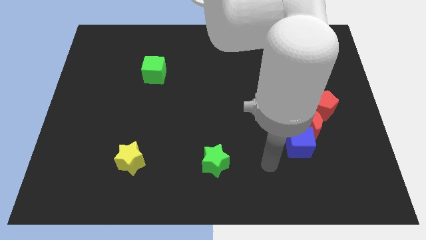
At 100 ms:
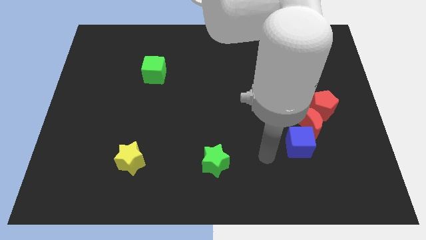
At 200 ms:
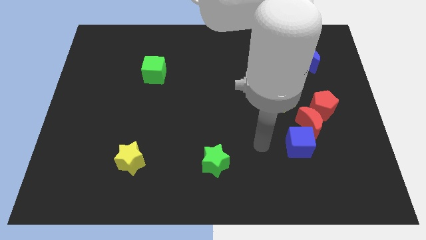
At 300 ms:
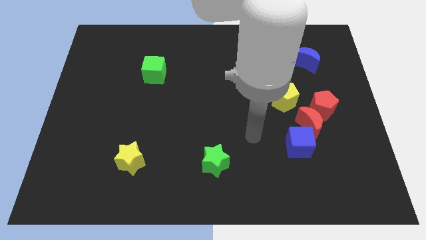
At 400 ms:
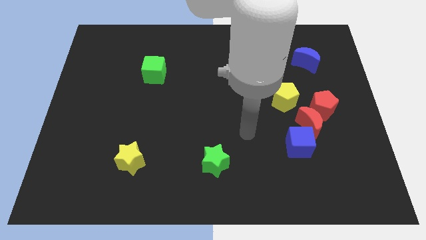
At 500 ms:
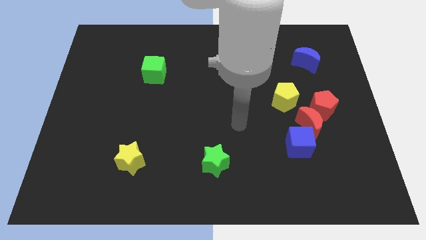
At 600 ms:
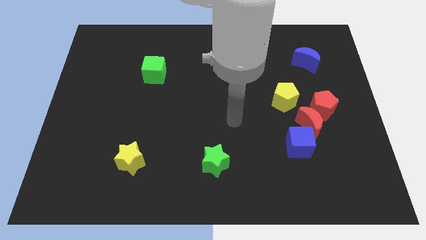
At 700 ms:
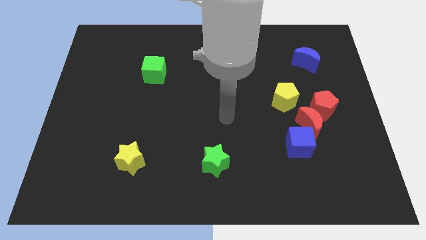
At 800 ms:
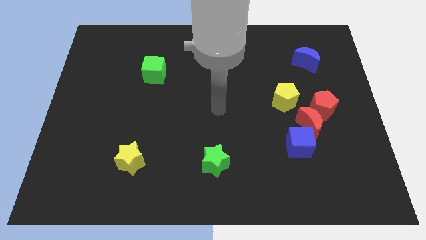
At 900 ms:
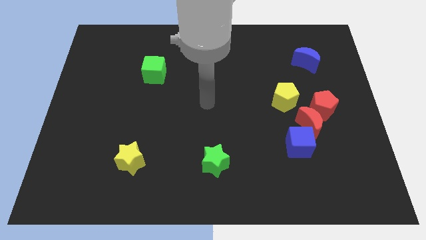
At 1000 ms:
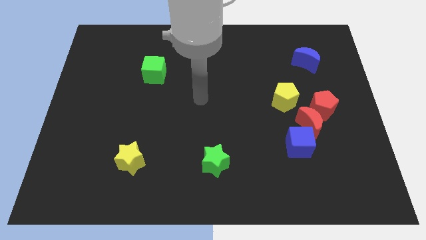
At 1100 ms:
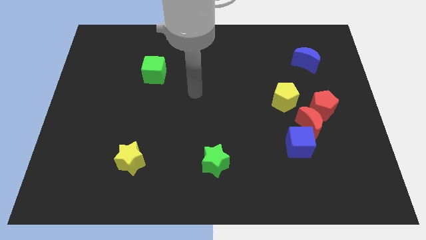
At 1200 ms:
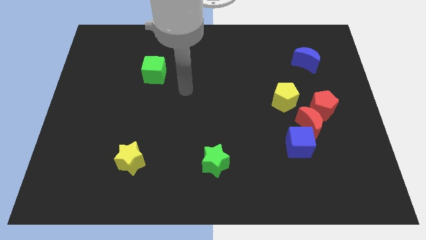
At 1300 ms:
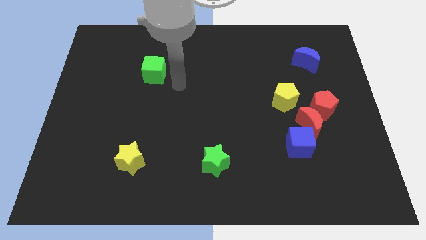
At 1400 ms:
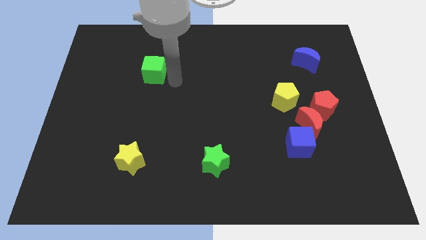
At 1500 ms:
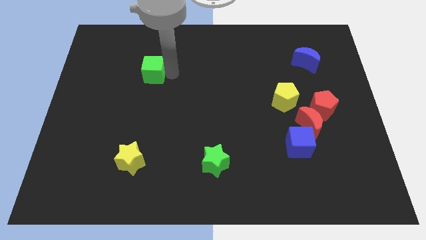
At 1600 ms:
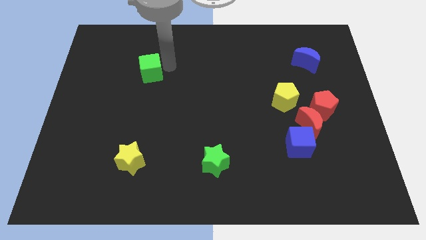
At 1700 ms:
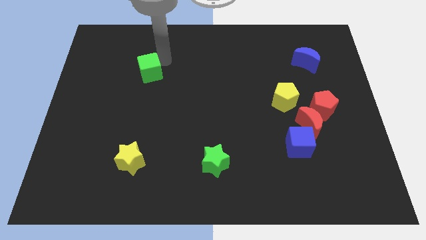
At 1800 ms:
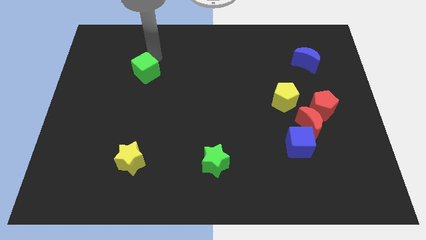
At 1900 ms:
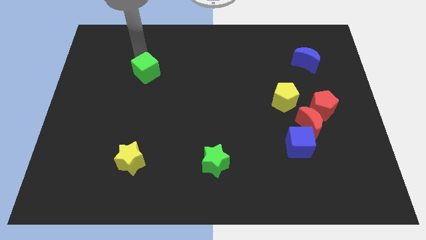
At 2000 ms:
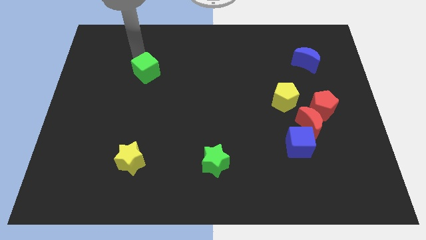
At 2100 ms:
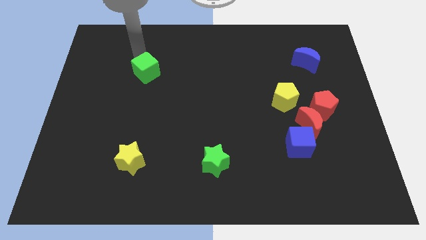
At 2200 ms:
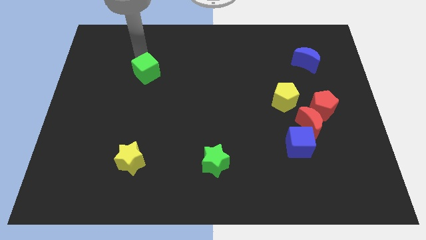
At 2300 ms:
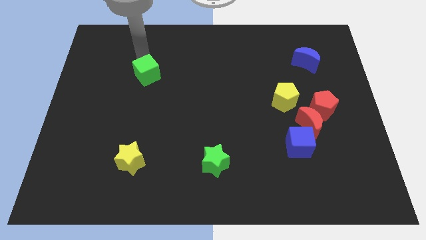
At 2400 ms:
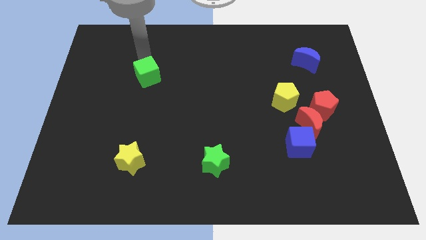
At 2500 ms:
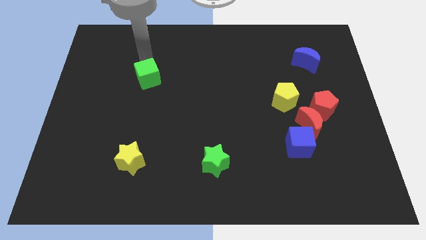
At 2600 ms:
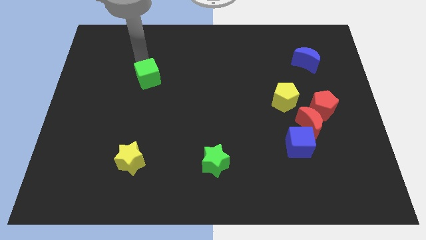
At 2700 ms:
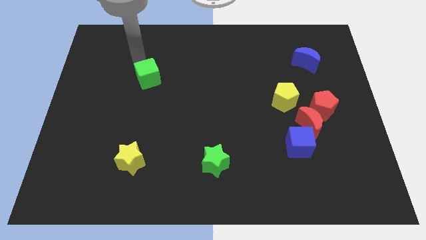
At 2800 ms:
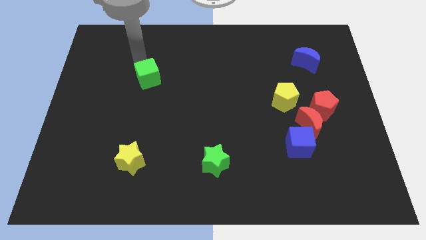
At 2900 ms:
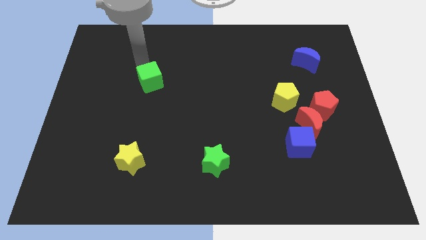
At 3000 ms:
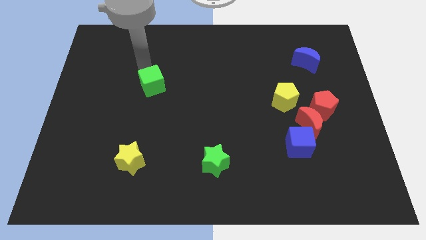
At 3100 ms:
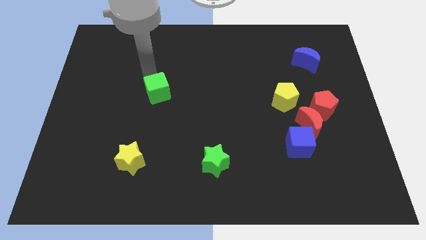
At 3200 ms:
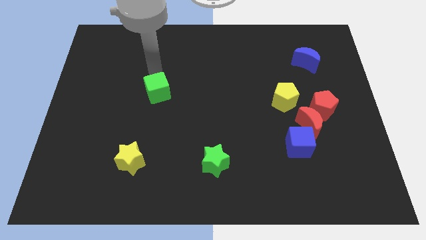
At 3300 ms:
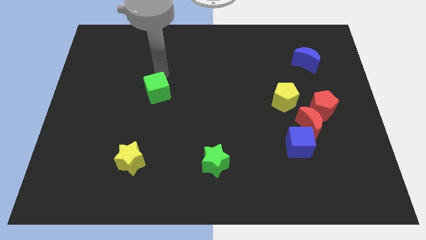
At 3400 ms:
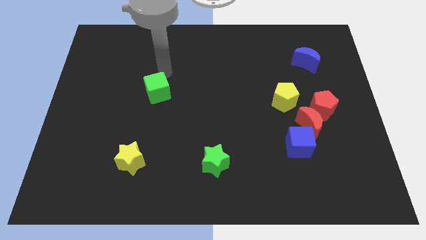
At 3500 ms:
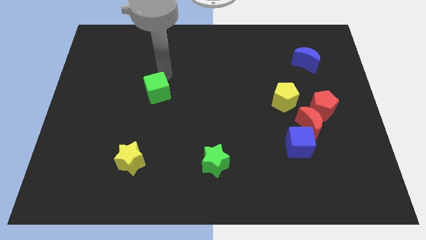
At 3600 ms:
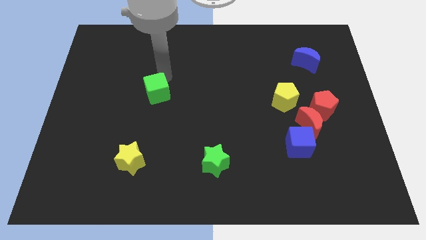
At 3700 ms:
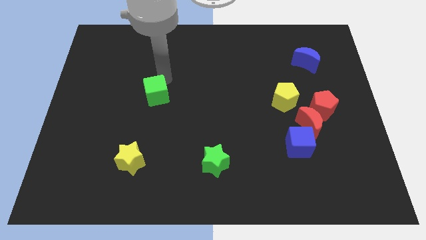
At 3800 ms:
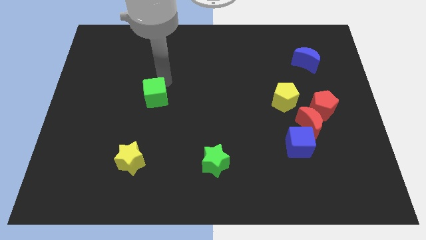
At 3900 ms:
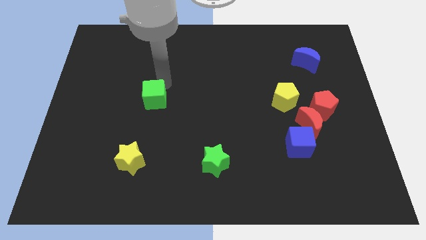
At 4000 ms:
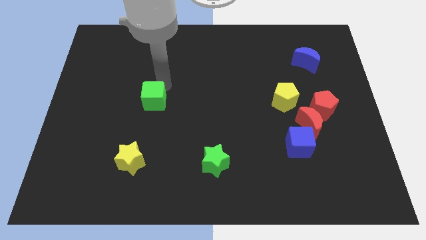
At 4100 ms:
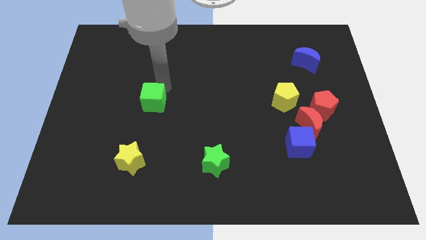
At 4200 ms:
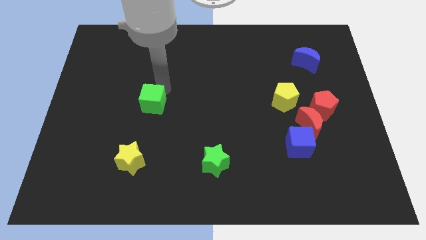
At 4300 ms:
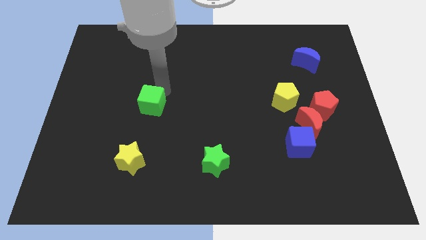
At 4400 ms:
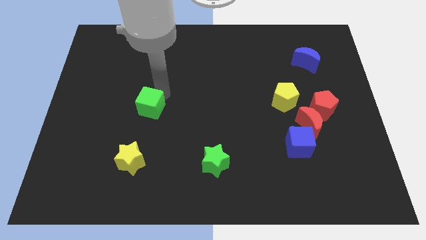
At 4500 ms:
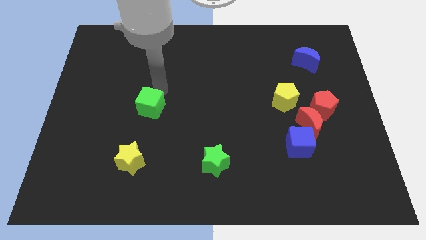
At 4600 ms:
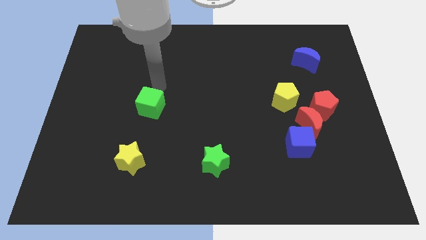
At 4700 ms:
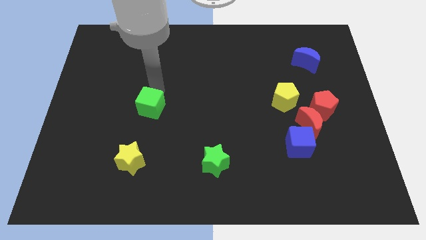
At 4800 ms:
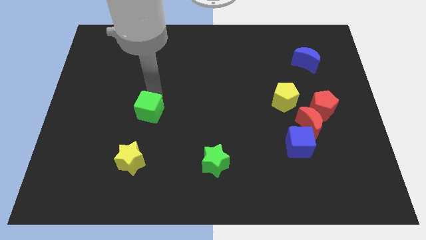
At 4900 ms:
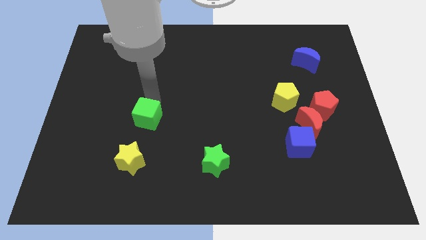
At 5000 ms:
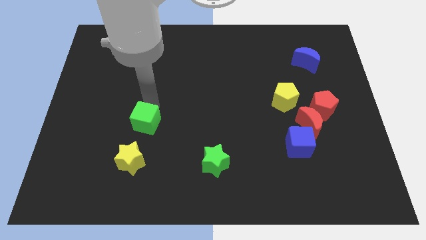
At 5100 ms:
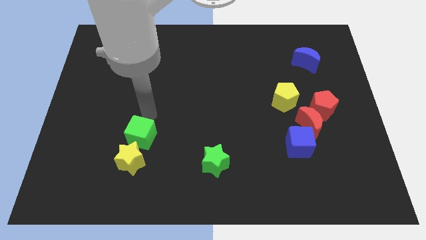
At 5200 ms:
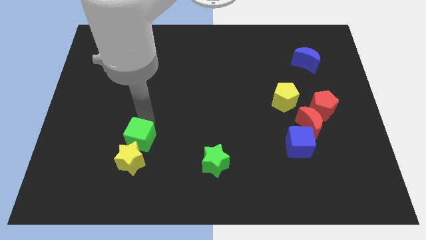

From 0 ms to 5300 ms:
put the green cube towards the yellow star

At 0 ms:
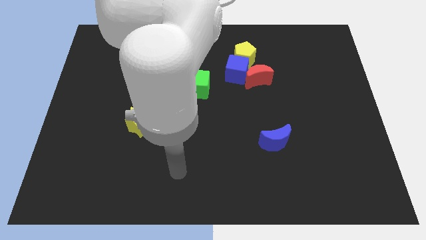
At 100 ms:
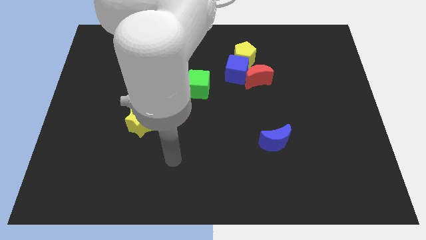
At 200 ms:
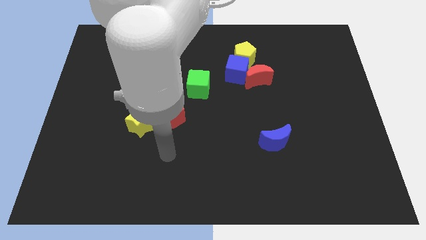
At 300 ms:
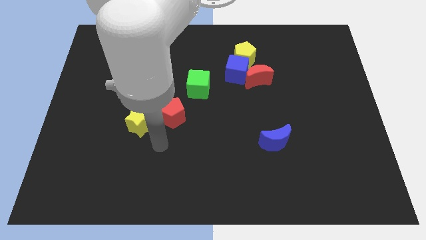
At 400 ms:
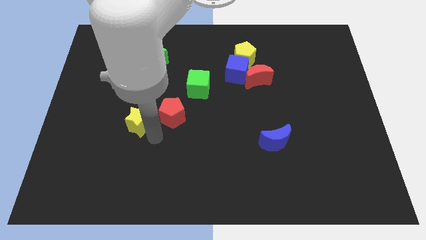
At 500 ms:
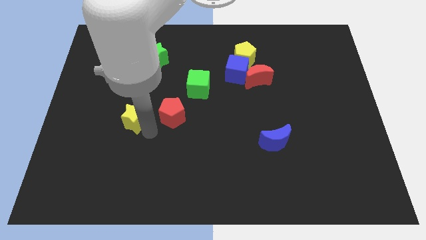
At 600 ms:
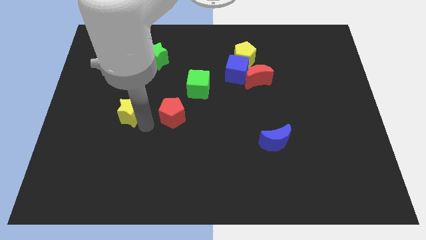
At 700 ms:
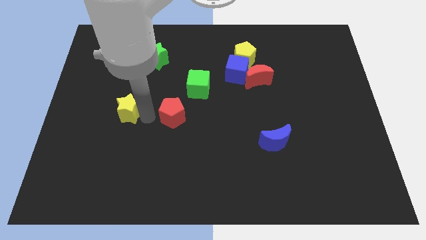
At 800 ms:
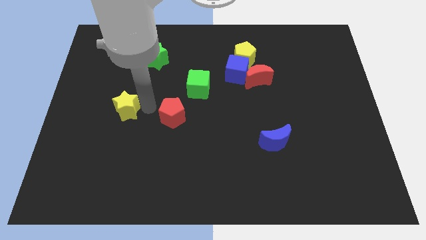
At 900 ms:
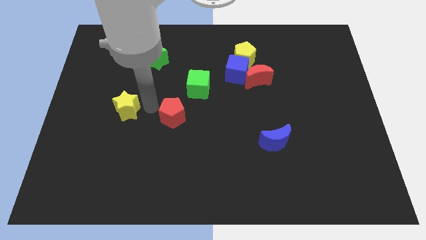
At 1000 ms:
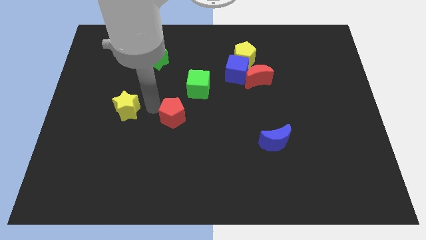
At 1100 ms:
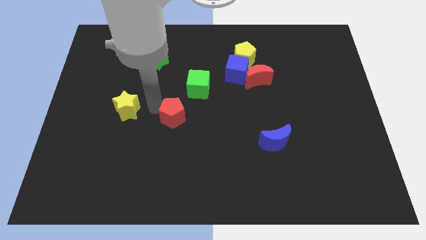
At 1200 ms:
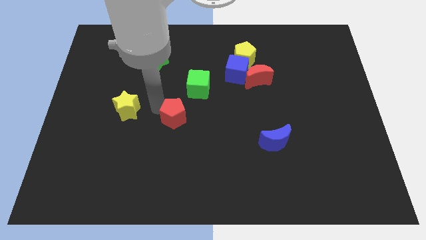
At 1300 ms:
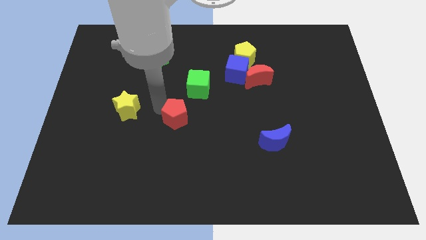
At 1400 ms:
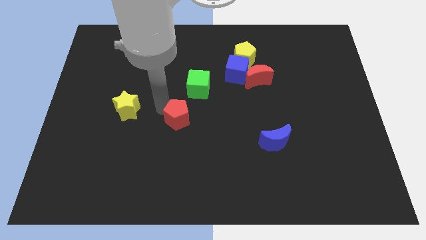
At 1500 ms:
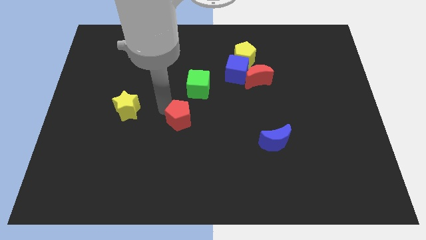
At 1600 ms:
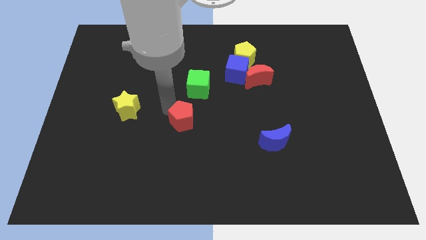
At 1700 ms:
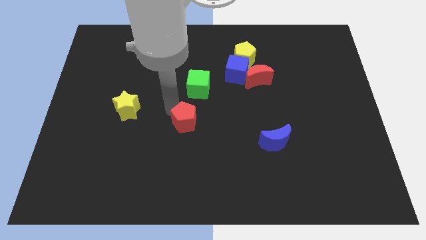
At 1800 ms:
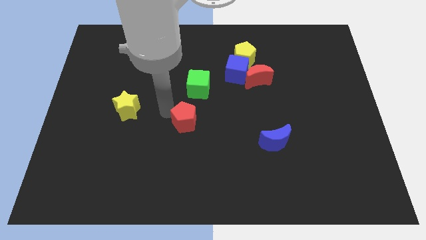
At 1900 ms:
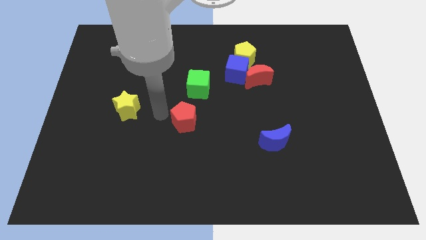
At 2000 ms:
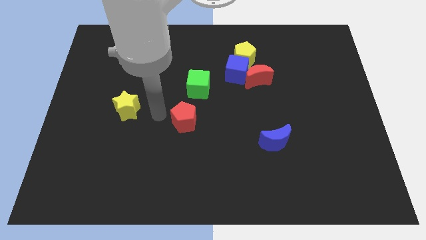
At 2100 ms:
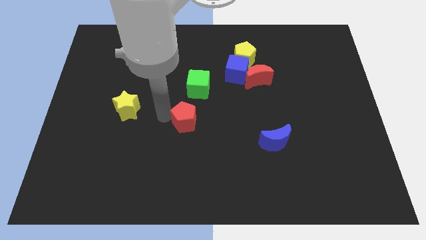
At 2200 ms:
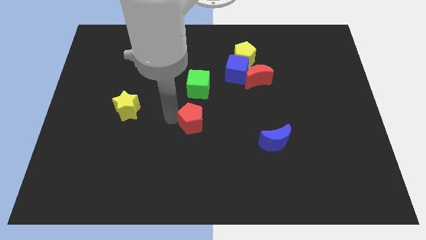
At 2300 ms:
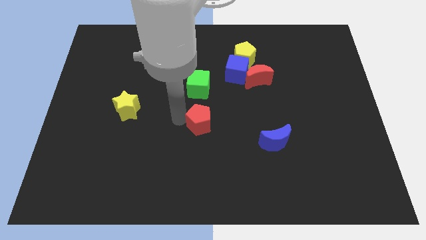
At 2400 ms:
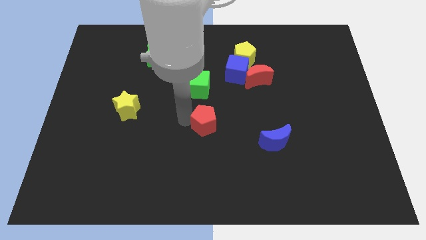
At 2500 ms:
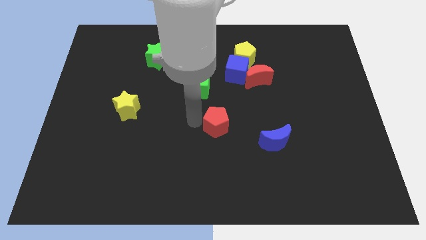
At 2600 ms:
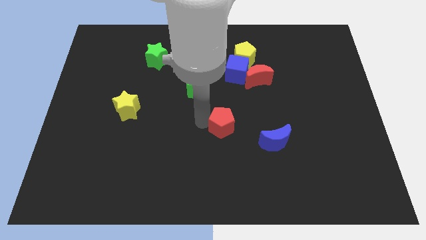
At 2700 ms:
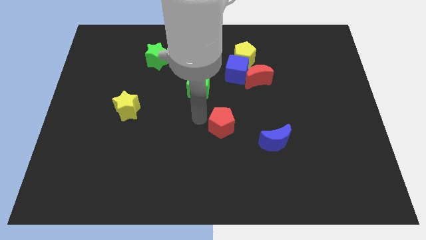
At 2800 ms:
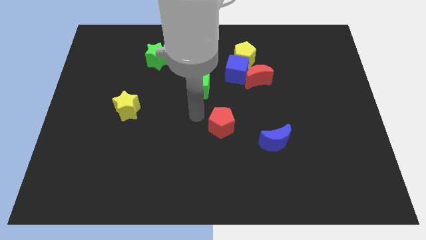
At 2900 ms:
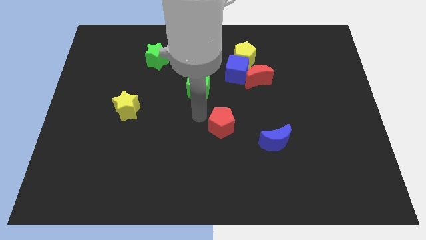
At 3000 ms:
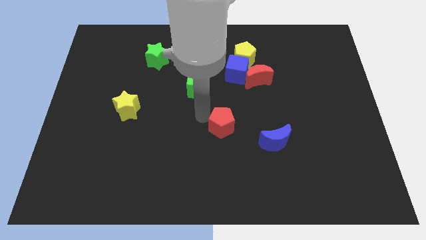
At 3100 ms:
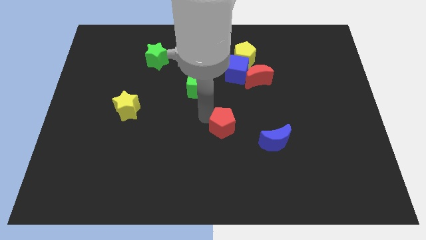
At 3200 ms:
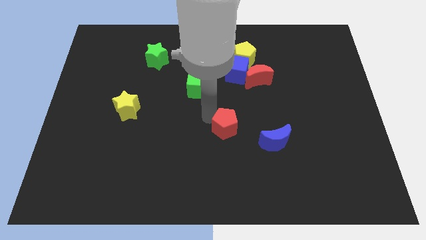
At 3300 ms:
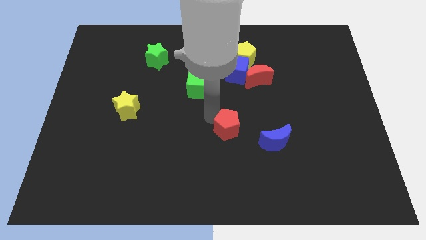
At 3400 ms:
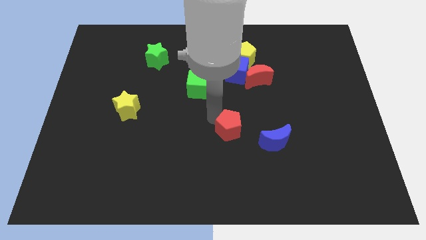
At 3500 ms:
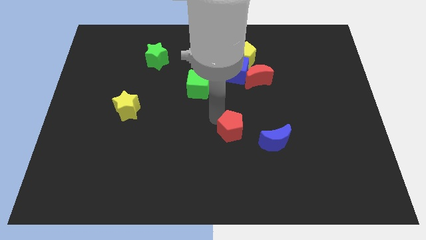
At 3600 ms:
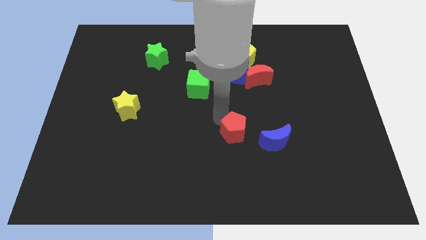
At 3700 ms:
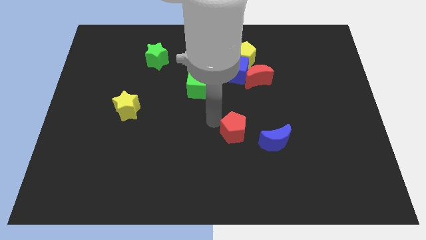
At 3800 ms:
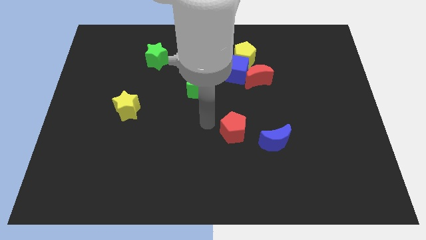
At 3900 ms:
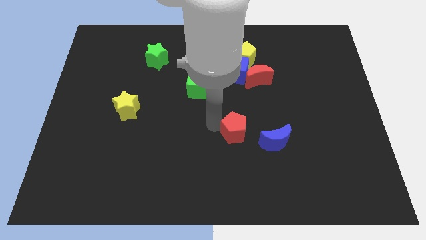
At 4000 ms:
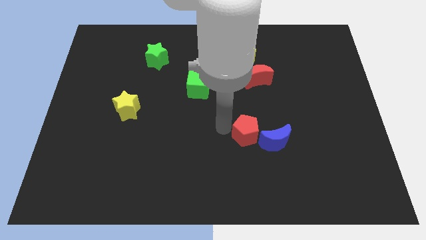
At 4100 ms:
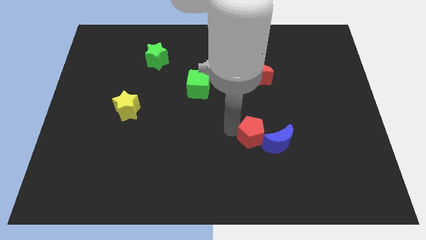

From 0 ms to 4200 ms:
push the red pentagon to the blue moon
